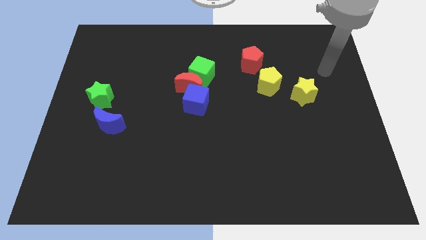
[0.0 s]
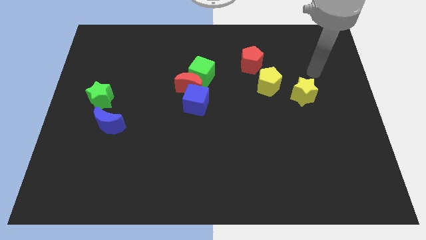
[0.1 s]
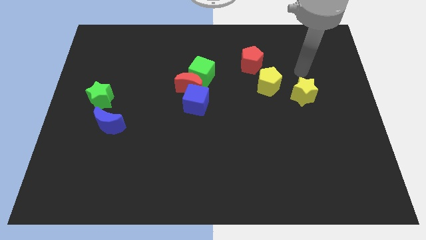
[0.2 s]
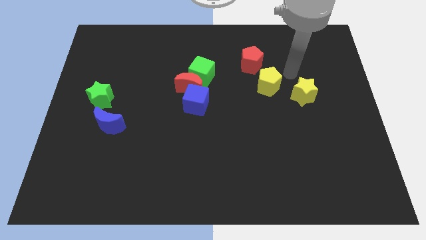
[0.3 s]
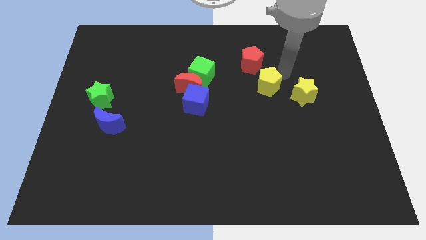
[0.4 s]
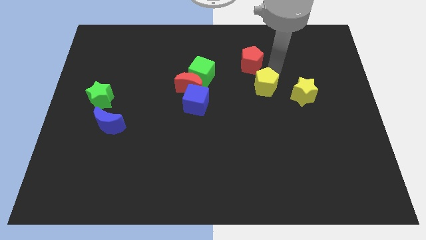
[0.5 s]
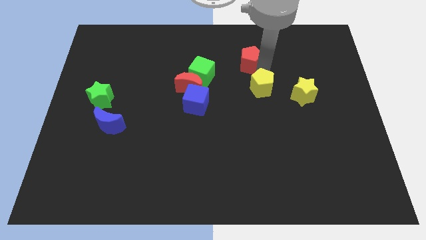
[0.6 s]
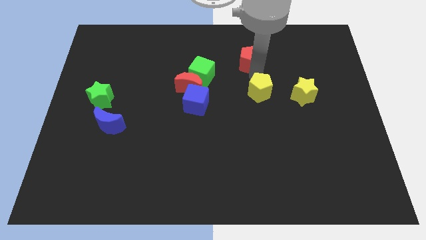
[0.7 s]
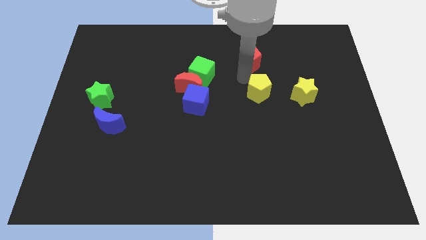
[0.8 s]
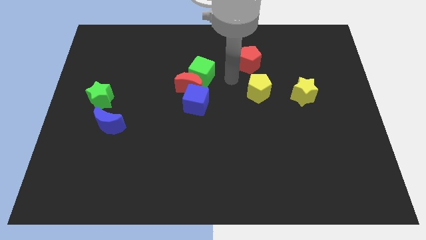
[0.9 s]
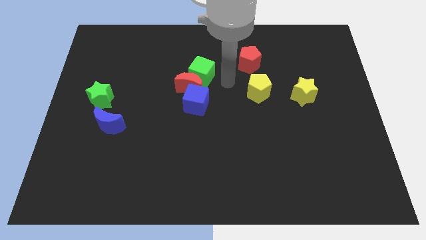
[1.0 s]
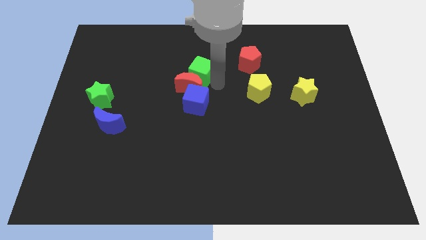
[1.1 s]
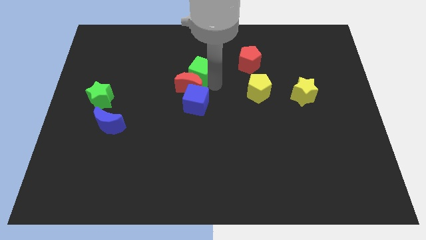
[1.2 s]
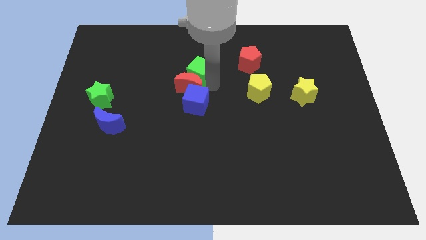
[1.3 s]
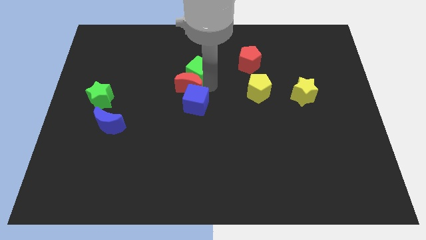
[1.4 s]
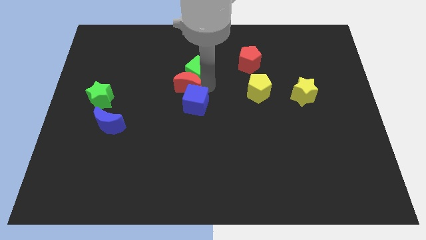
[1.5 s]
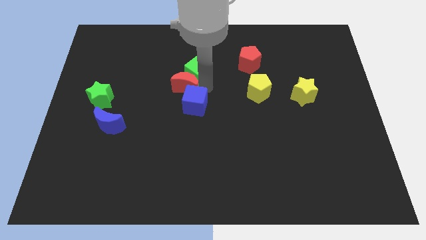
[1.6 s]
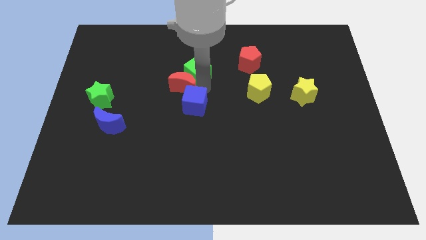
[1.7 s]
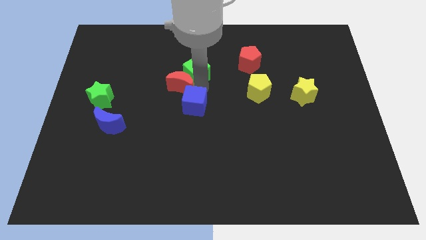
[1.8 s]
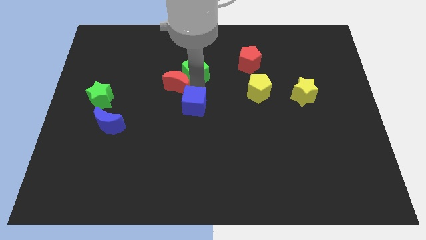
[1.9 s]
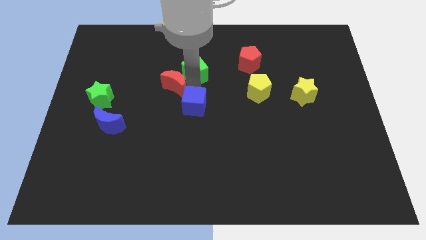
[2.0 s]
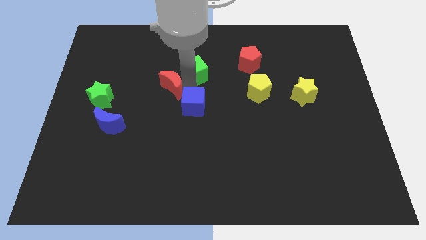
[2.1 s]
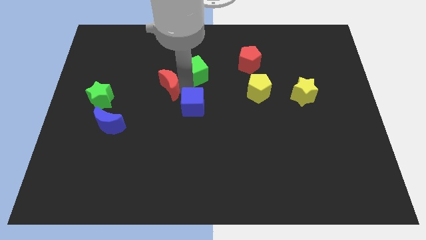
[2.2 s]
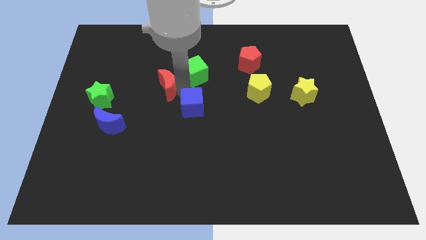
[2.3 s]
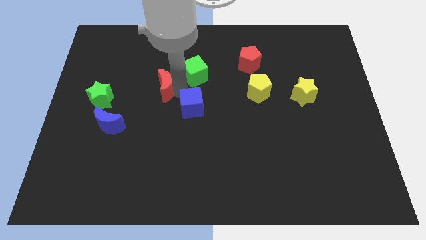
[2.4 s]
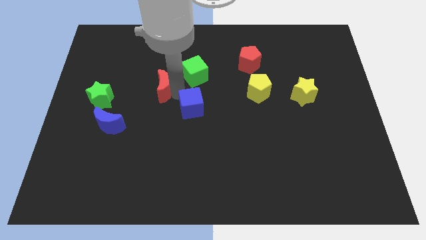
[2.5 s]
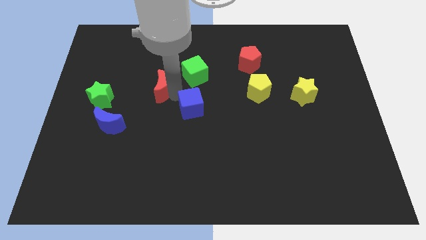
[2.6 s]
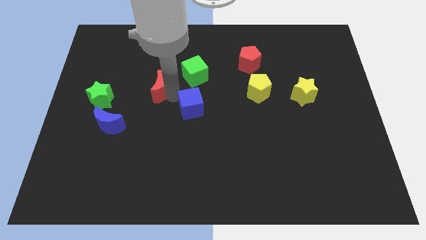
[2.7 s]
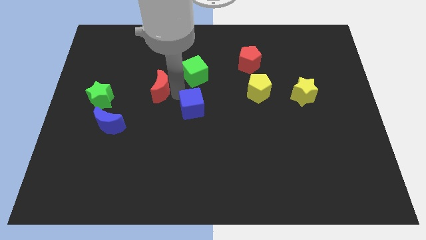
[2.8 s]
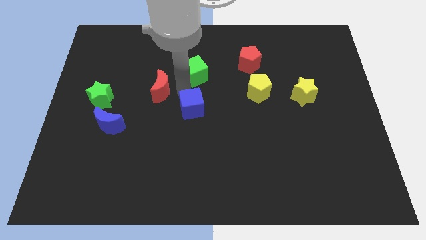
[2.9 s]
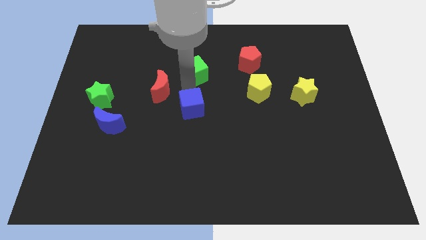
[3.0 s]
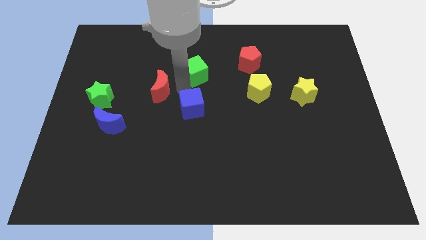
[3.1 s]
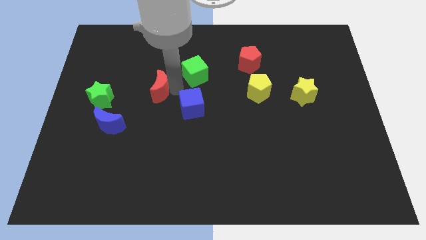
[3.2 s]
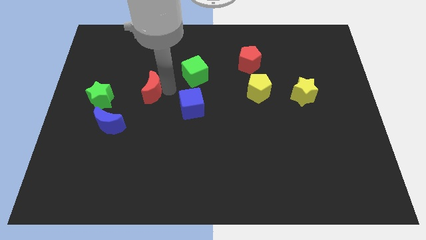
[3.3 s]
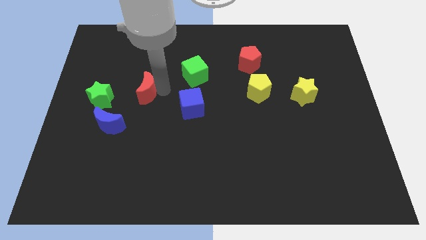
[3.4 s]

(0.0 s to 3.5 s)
move the red moon away from the green cube and blue cube

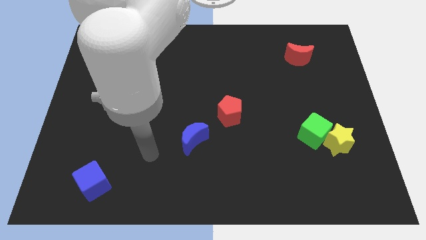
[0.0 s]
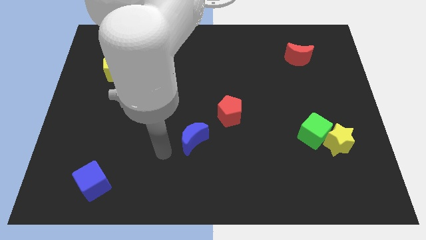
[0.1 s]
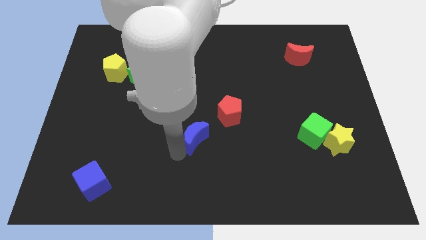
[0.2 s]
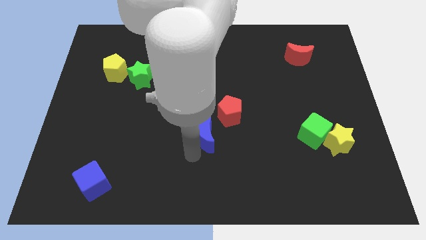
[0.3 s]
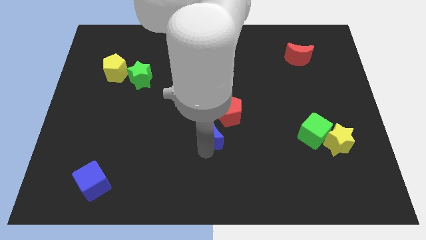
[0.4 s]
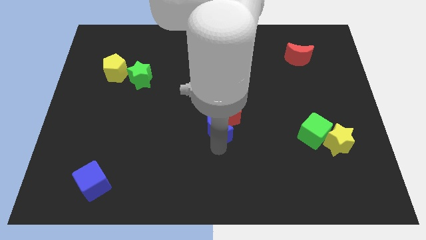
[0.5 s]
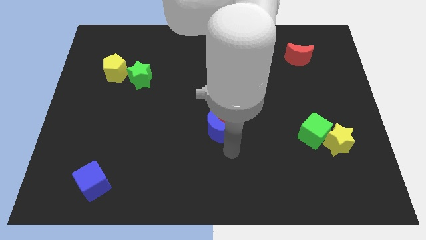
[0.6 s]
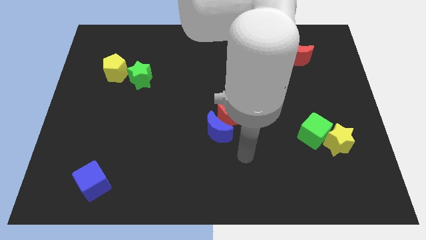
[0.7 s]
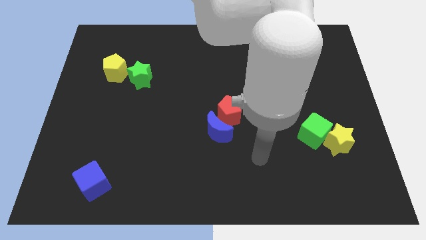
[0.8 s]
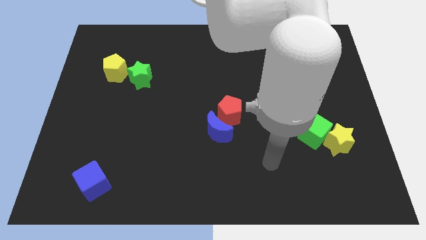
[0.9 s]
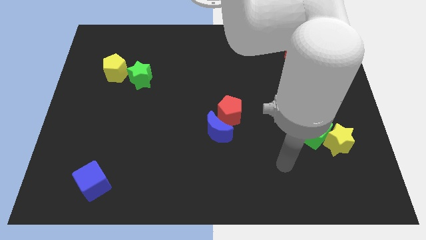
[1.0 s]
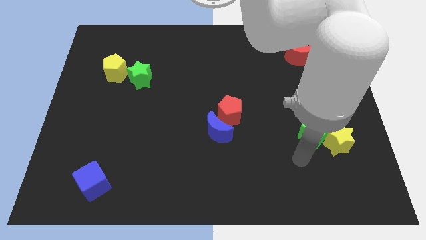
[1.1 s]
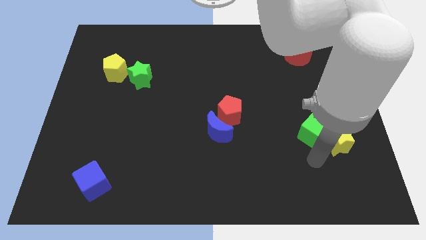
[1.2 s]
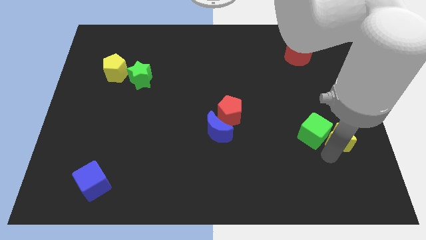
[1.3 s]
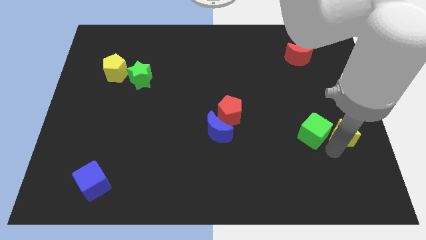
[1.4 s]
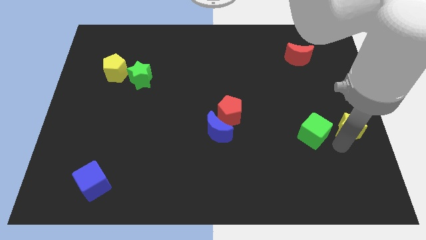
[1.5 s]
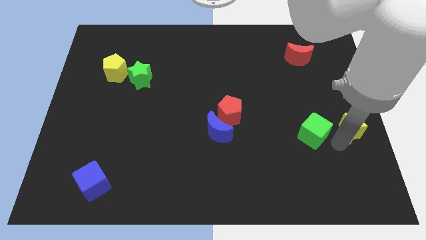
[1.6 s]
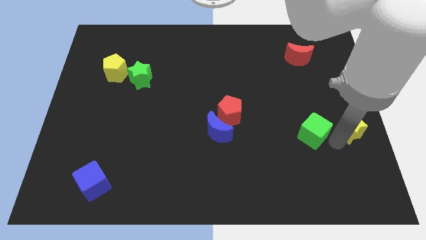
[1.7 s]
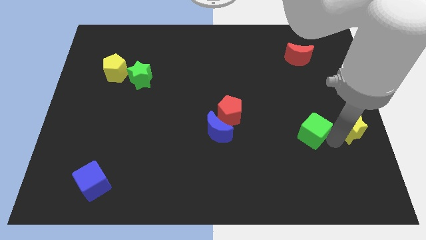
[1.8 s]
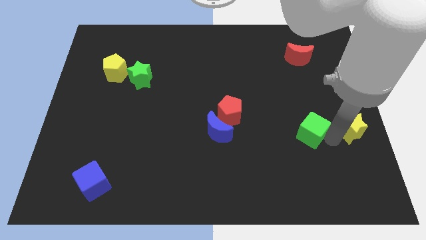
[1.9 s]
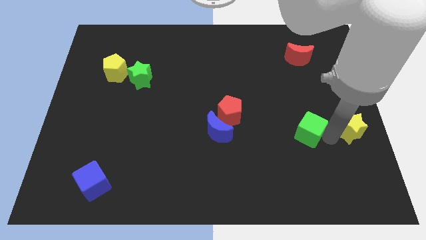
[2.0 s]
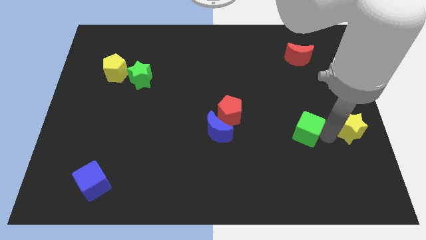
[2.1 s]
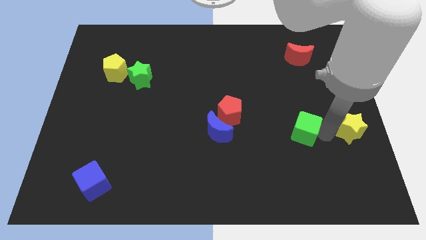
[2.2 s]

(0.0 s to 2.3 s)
separate the green cube from the yellow star

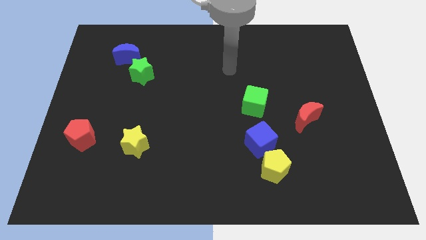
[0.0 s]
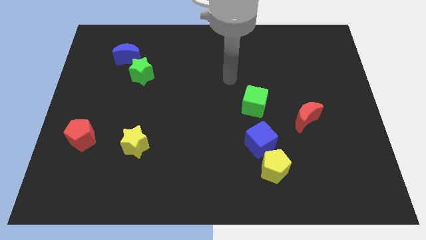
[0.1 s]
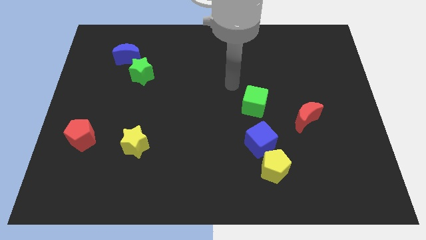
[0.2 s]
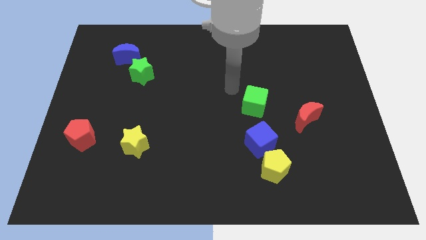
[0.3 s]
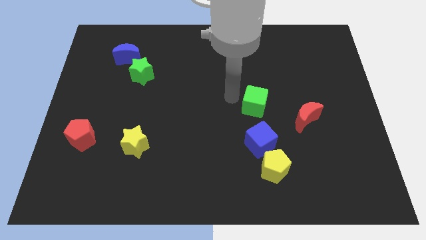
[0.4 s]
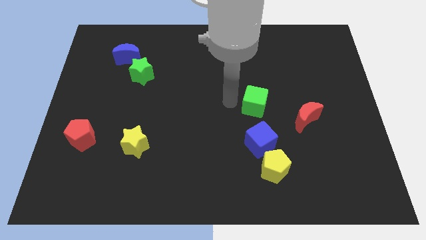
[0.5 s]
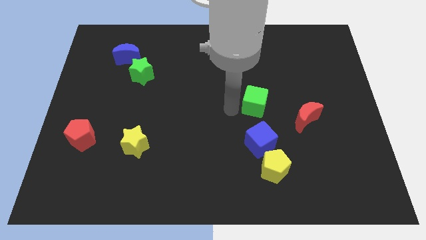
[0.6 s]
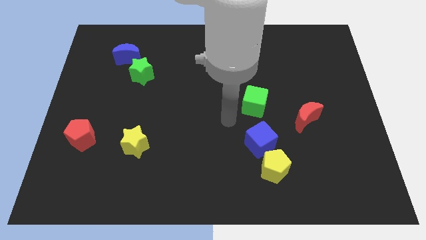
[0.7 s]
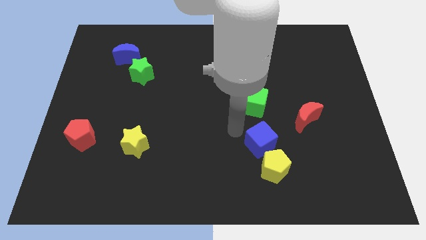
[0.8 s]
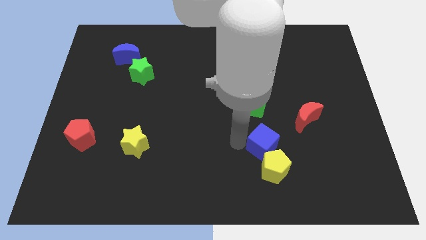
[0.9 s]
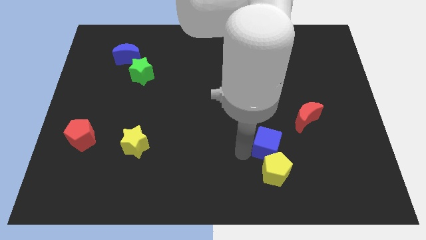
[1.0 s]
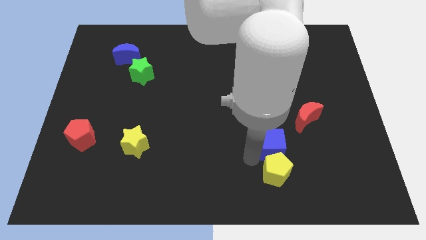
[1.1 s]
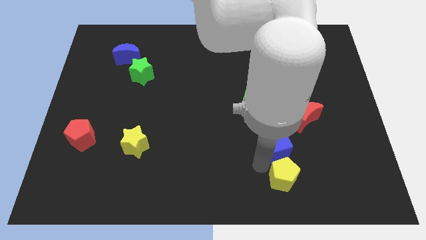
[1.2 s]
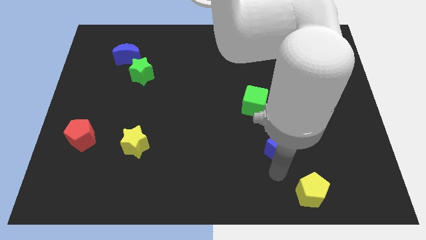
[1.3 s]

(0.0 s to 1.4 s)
move the blue cube away from the yellow pentagon

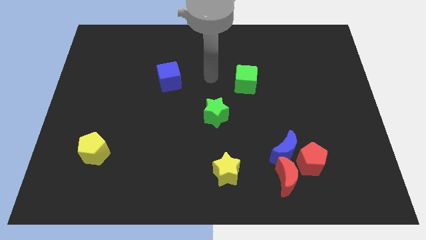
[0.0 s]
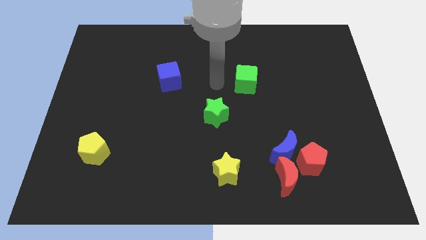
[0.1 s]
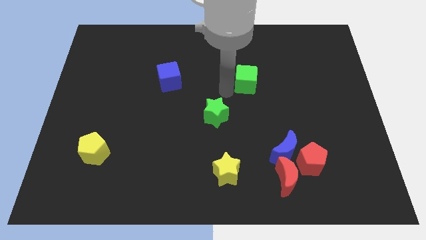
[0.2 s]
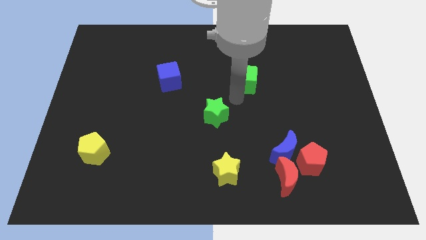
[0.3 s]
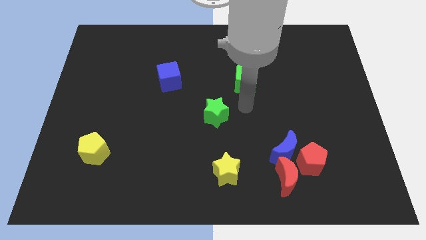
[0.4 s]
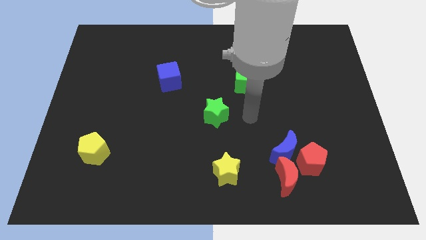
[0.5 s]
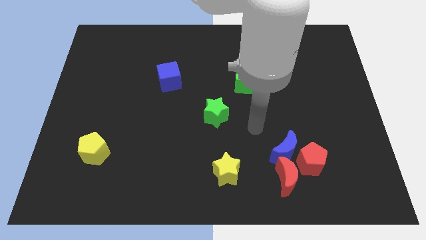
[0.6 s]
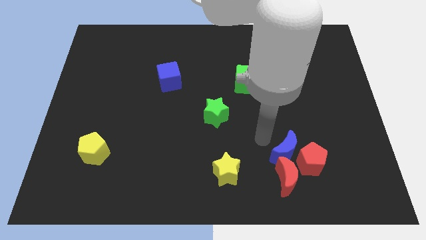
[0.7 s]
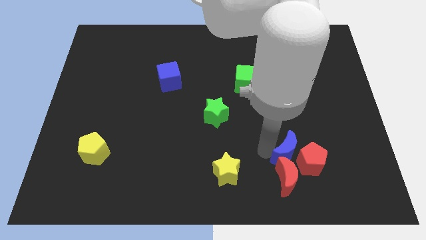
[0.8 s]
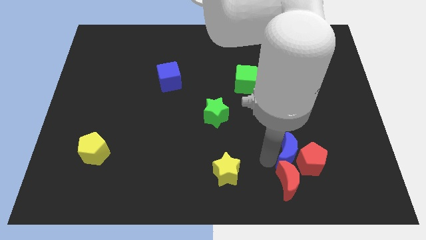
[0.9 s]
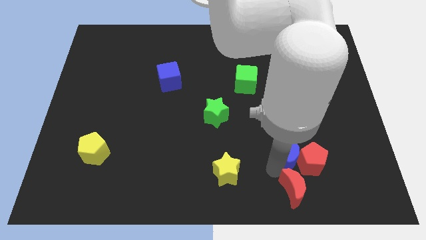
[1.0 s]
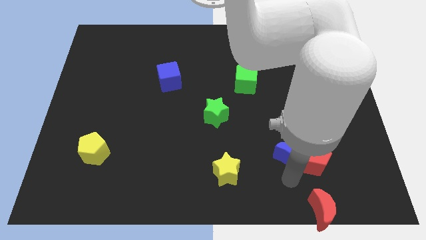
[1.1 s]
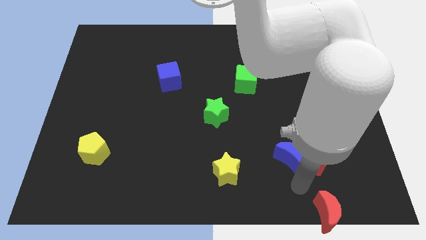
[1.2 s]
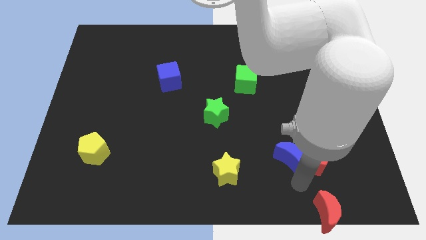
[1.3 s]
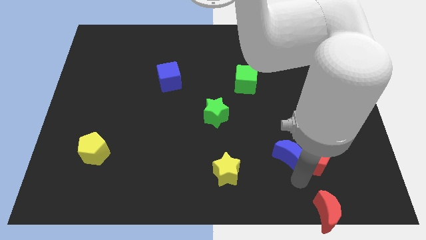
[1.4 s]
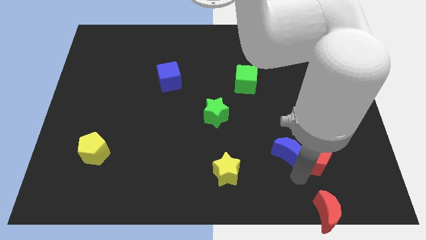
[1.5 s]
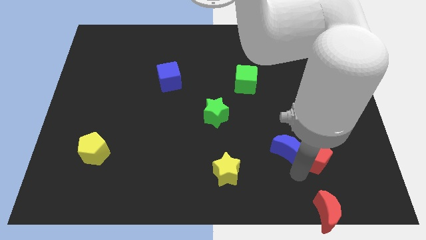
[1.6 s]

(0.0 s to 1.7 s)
move the blue moon away from the red pentagon and red moon

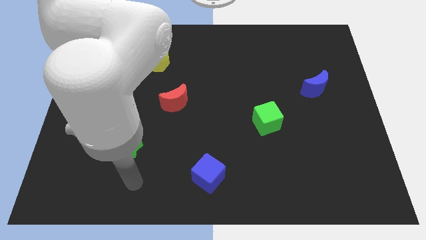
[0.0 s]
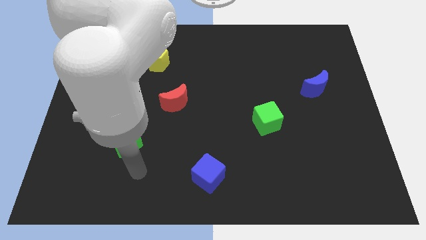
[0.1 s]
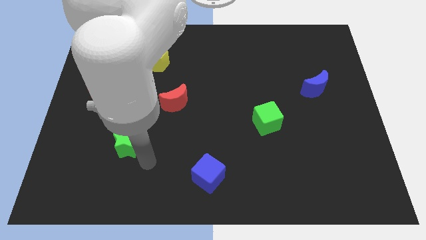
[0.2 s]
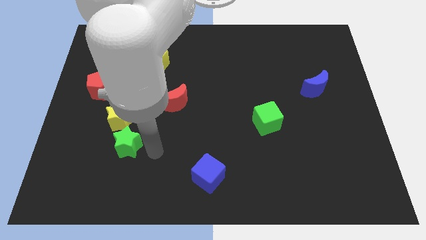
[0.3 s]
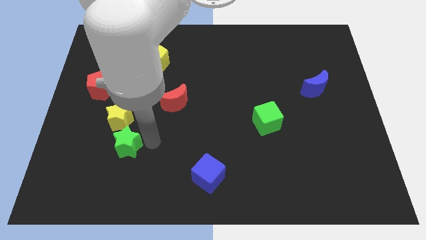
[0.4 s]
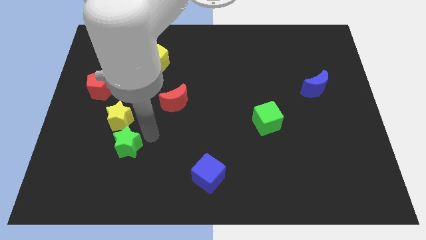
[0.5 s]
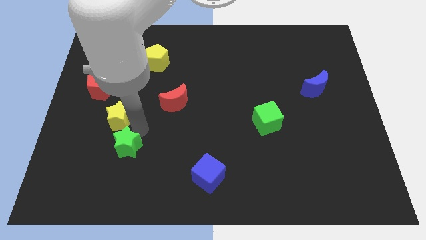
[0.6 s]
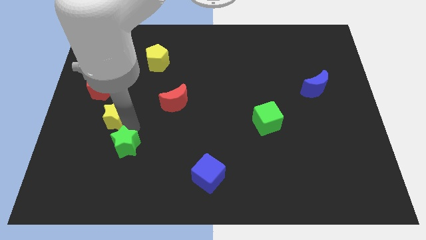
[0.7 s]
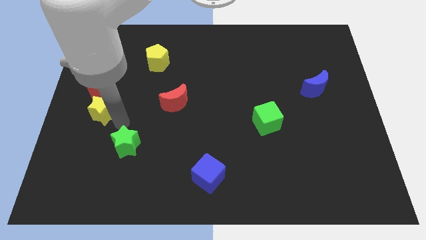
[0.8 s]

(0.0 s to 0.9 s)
separate the green star from the yellow star
